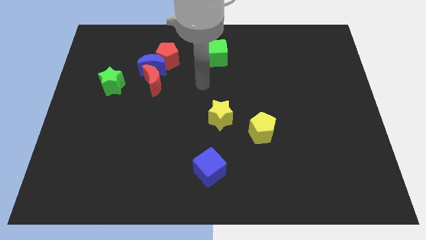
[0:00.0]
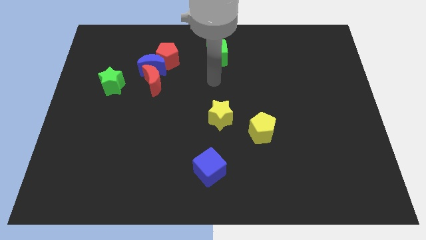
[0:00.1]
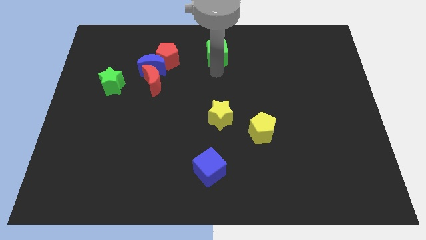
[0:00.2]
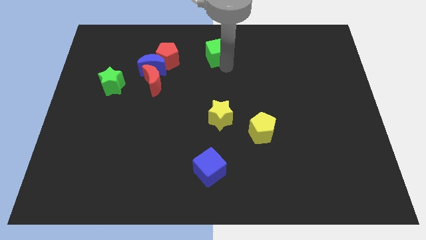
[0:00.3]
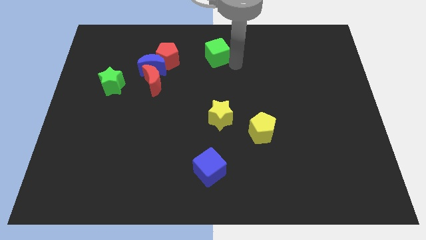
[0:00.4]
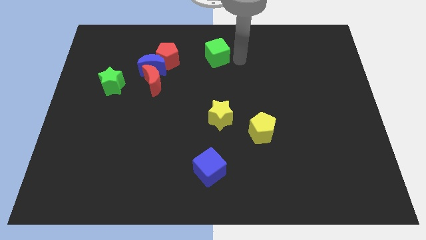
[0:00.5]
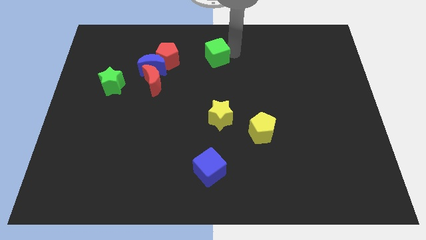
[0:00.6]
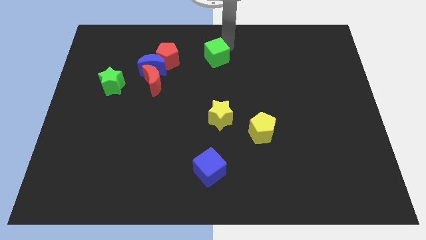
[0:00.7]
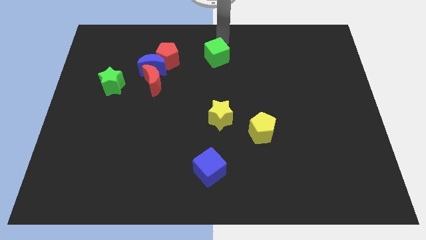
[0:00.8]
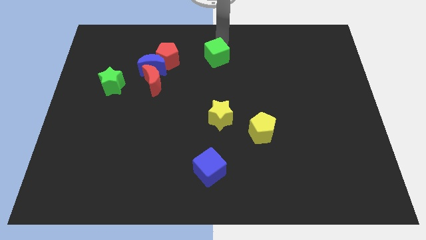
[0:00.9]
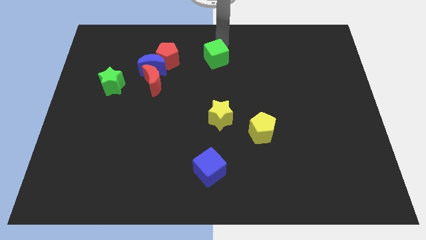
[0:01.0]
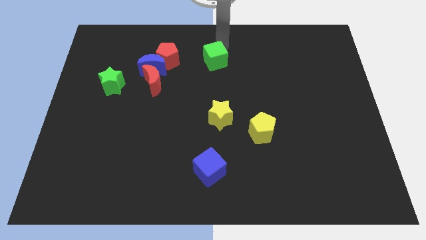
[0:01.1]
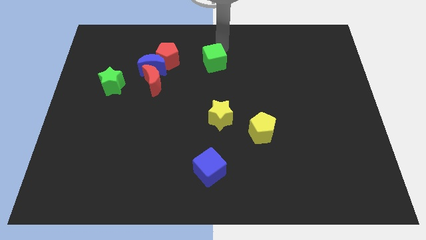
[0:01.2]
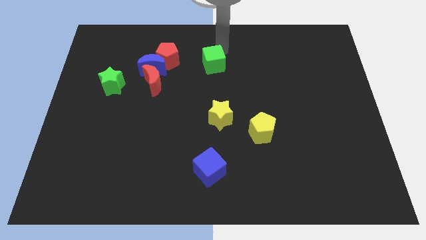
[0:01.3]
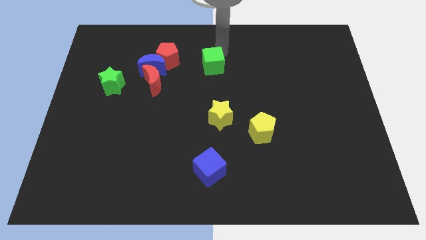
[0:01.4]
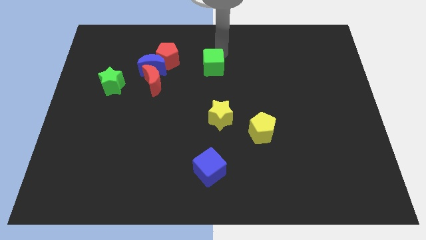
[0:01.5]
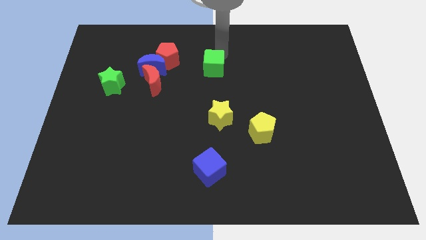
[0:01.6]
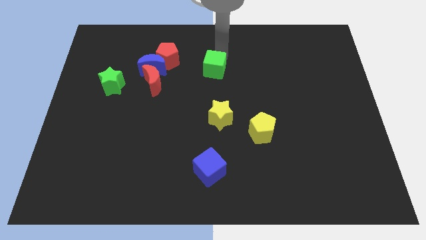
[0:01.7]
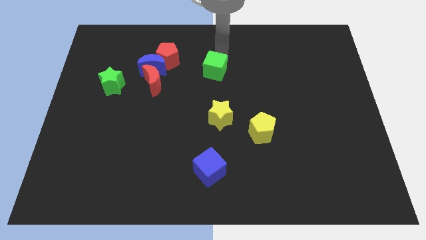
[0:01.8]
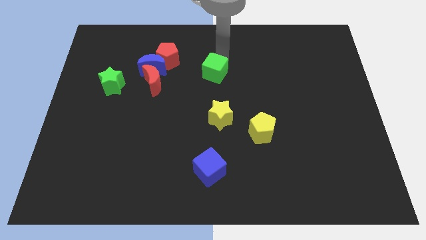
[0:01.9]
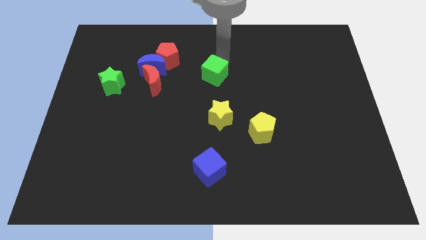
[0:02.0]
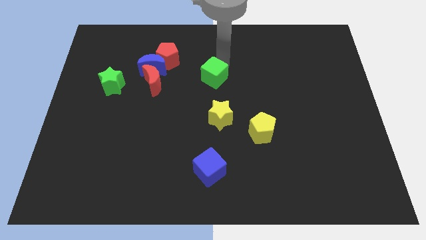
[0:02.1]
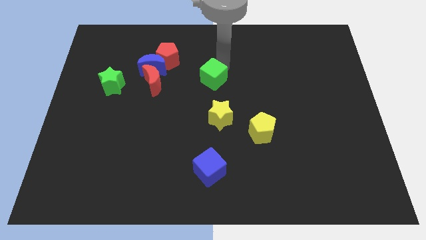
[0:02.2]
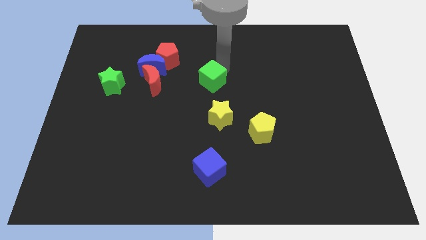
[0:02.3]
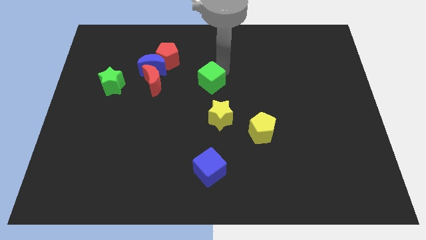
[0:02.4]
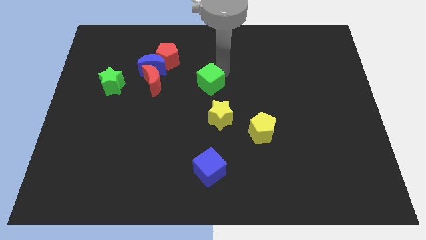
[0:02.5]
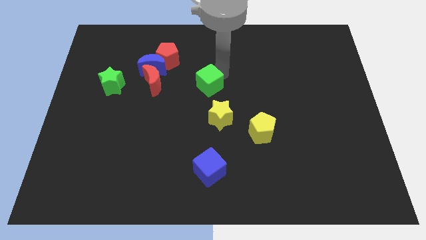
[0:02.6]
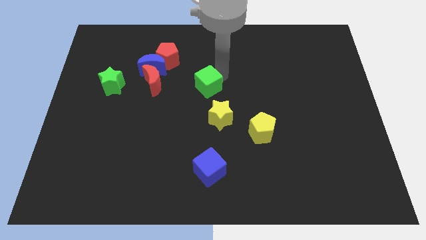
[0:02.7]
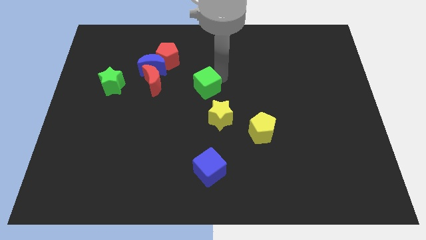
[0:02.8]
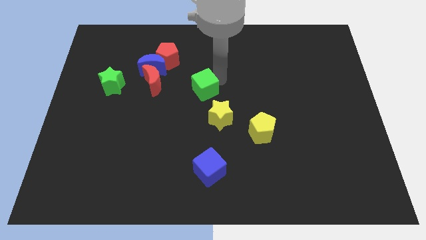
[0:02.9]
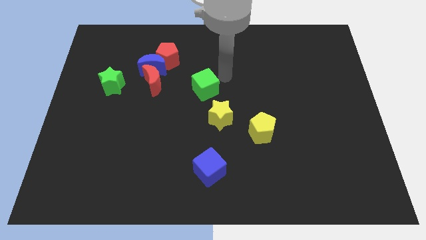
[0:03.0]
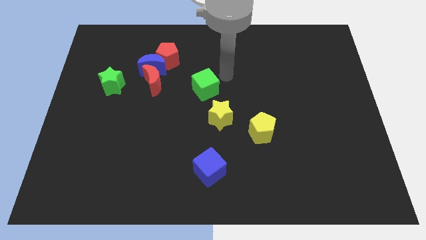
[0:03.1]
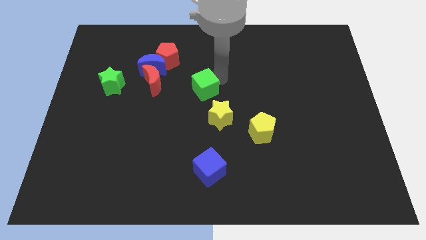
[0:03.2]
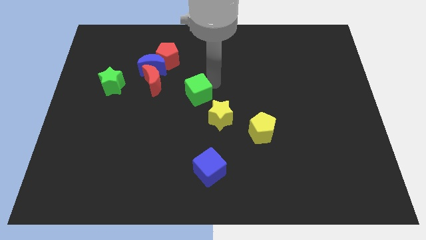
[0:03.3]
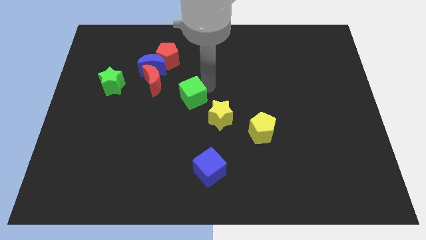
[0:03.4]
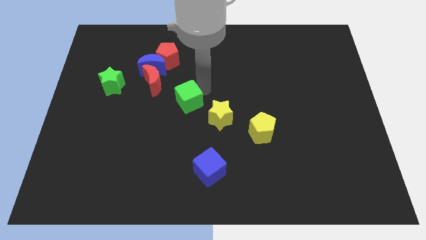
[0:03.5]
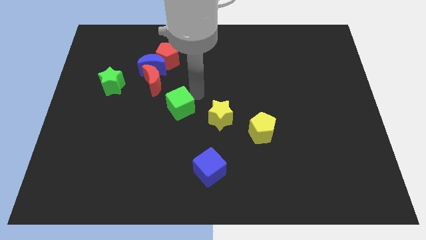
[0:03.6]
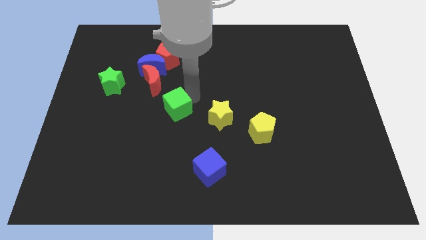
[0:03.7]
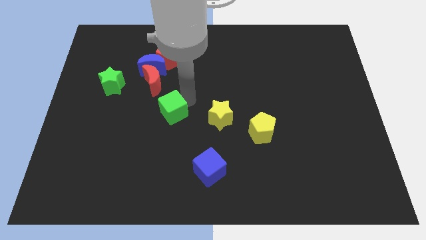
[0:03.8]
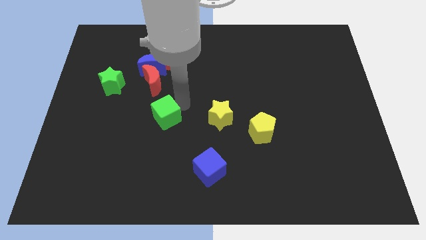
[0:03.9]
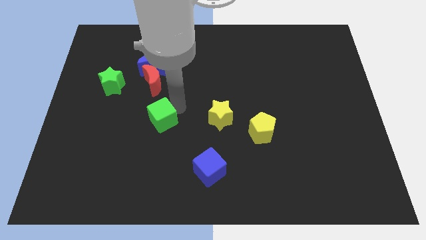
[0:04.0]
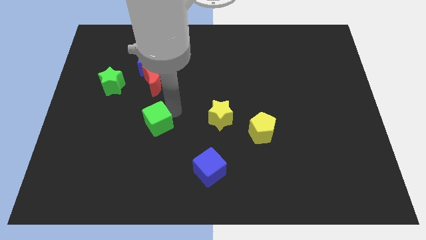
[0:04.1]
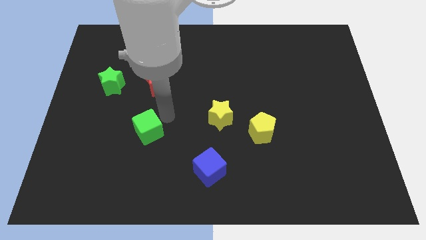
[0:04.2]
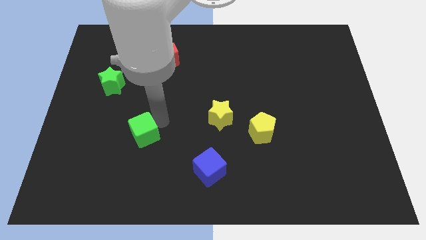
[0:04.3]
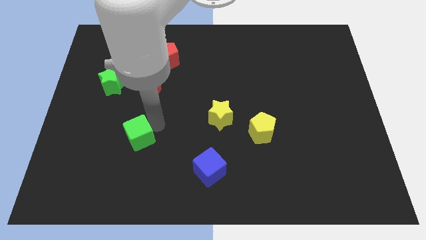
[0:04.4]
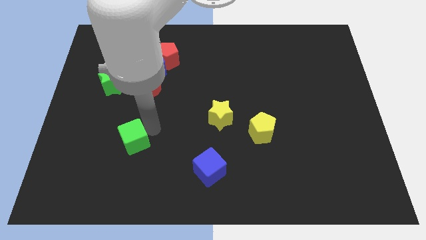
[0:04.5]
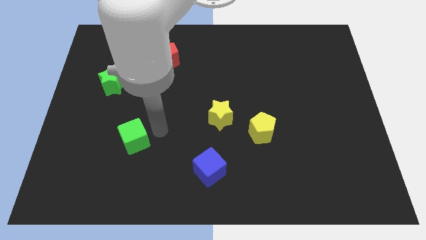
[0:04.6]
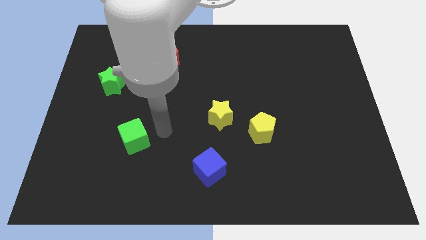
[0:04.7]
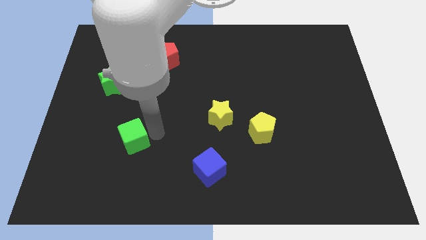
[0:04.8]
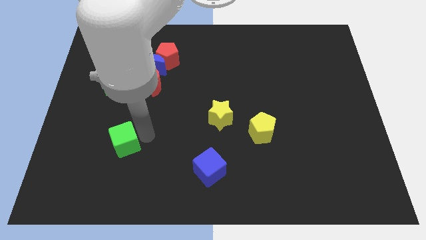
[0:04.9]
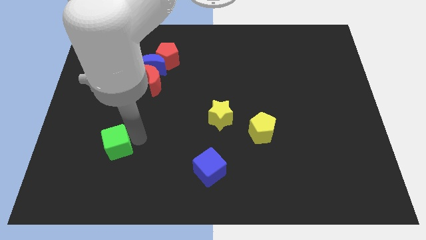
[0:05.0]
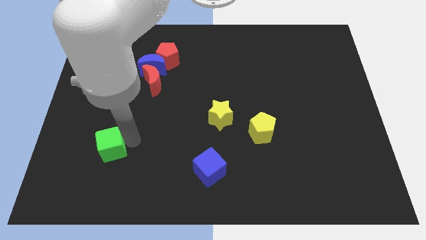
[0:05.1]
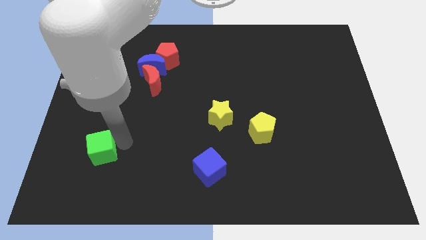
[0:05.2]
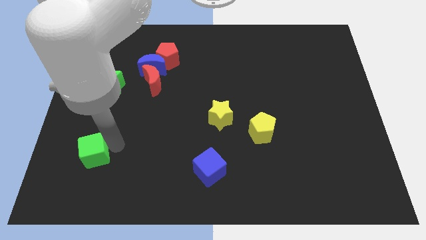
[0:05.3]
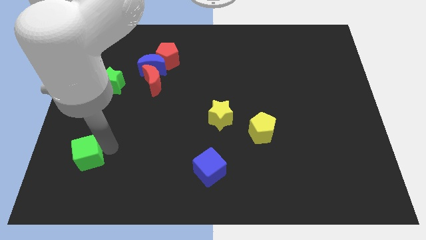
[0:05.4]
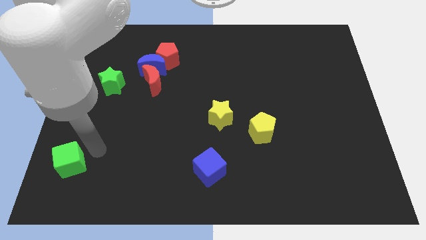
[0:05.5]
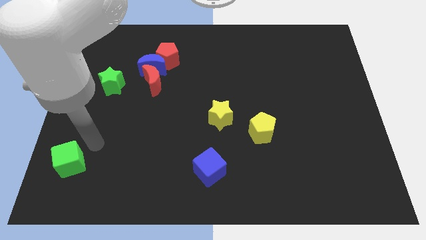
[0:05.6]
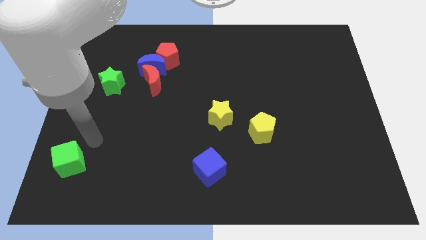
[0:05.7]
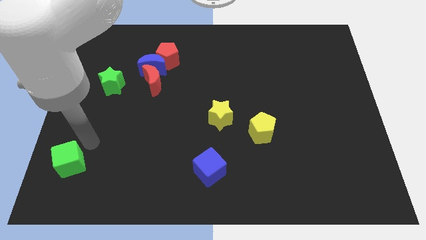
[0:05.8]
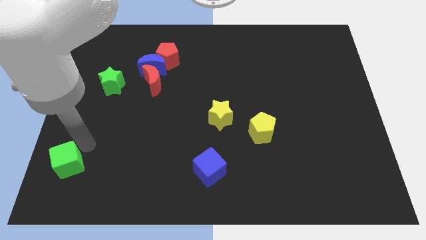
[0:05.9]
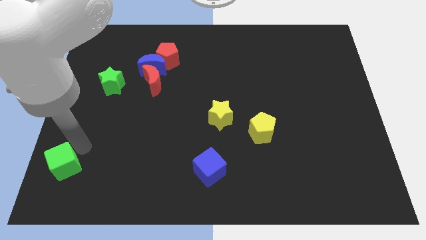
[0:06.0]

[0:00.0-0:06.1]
move the green cube to the bottom left corner

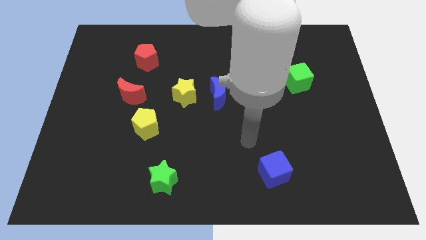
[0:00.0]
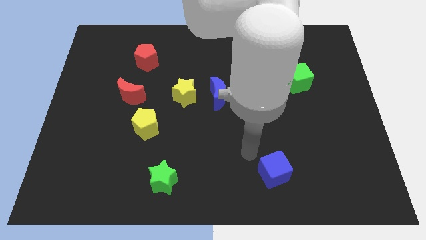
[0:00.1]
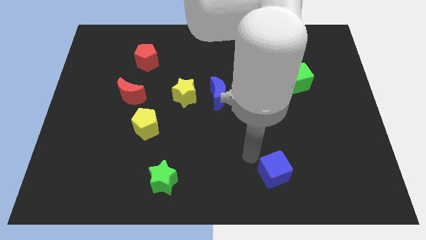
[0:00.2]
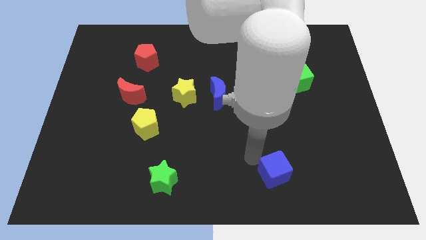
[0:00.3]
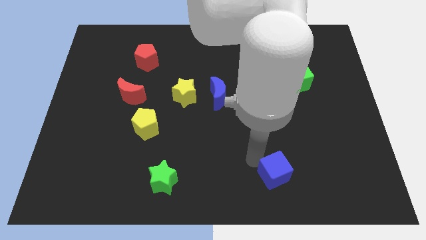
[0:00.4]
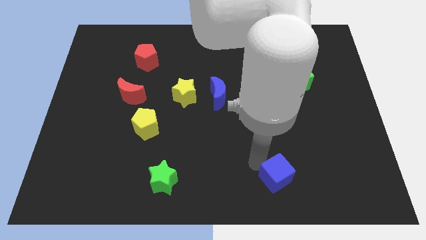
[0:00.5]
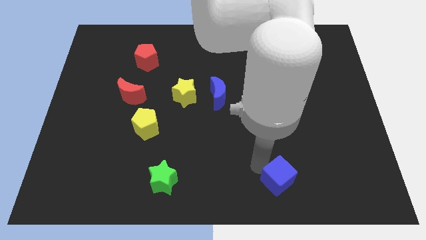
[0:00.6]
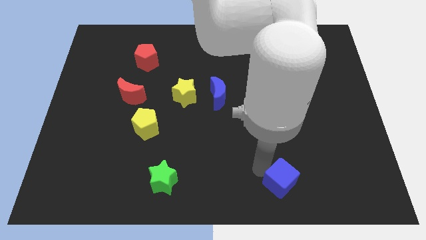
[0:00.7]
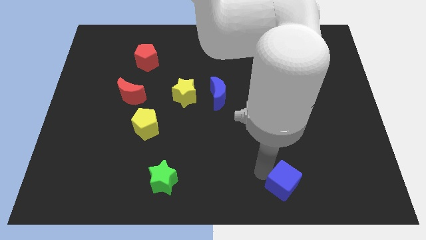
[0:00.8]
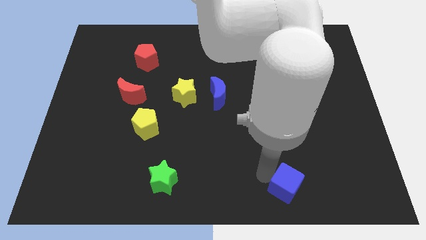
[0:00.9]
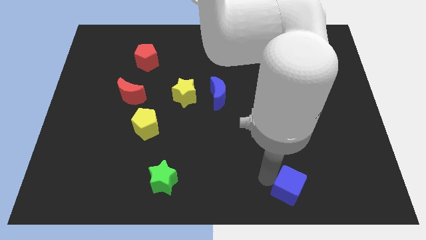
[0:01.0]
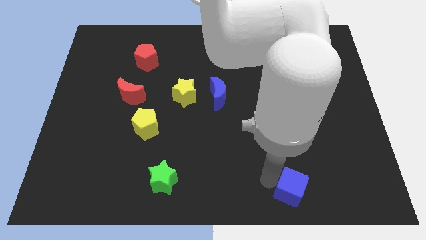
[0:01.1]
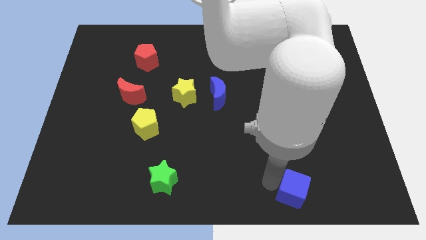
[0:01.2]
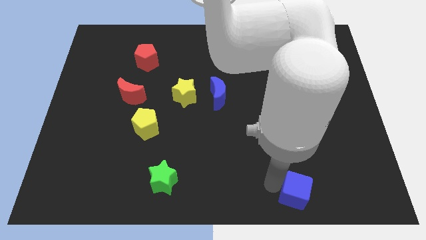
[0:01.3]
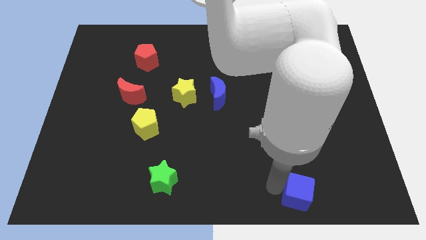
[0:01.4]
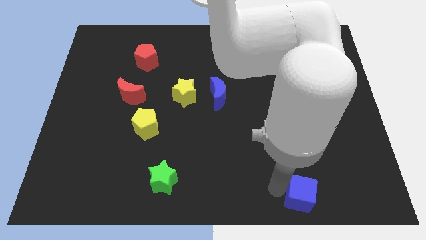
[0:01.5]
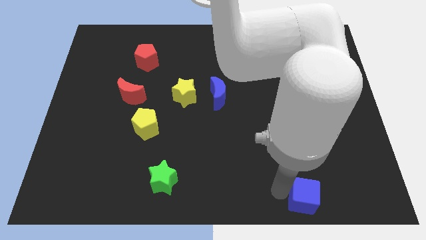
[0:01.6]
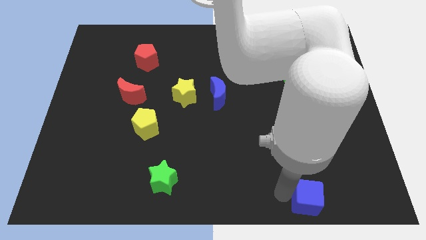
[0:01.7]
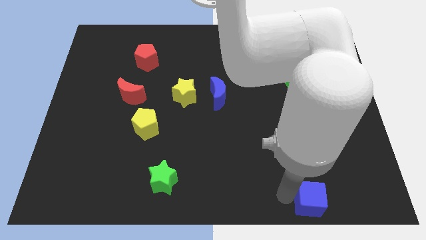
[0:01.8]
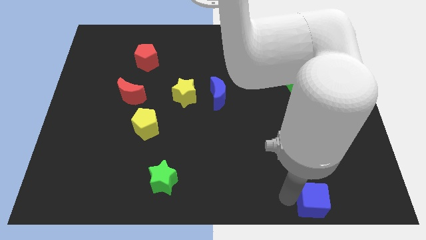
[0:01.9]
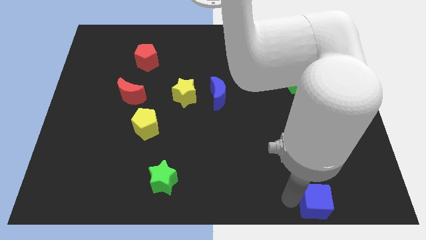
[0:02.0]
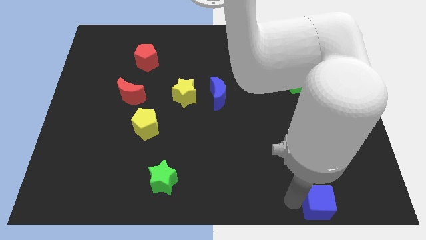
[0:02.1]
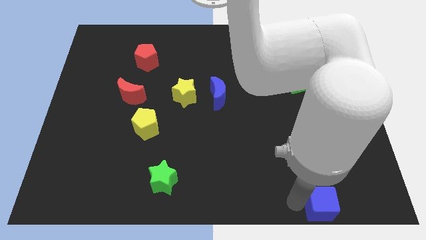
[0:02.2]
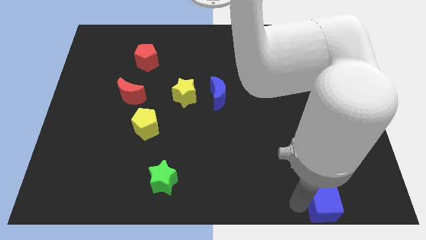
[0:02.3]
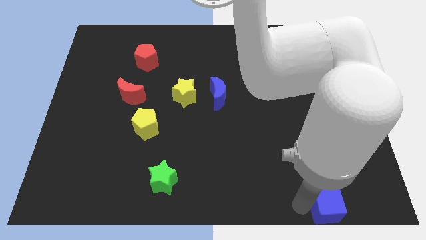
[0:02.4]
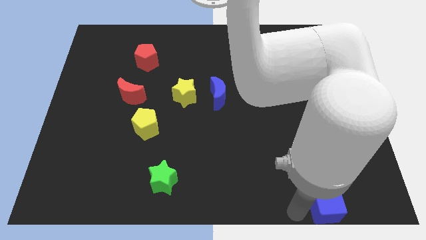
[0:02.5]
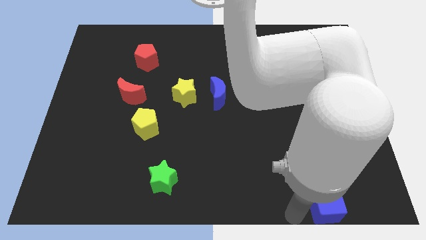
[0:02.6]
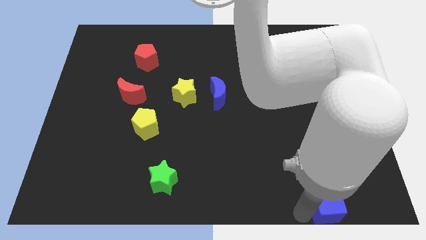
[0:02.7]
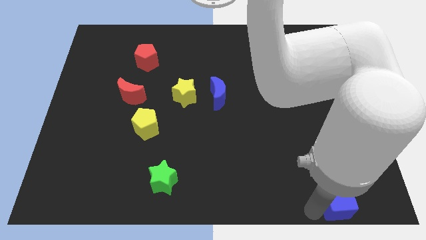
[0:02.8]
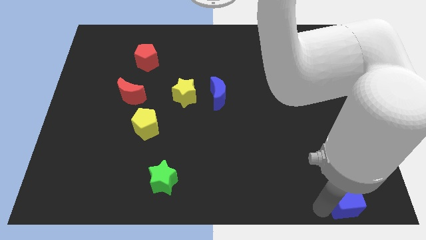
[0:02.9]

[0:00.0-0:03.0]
move the blue cube to the bottom right corner
